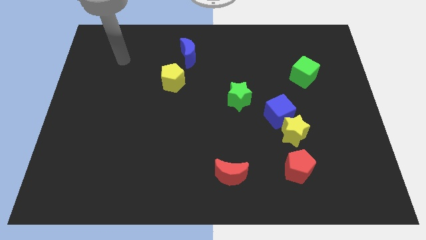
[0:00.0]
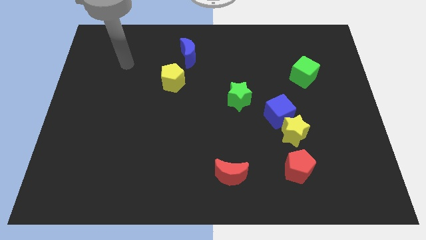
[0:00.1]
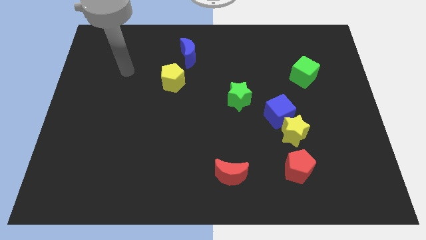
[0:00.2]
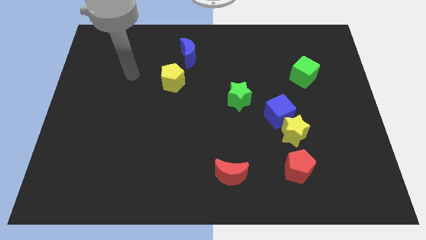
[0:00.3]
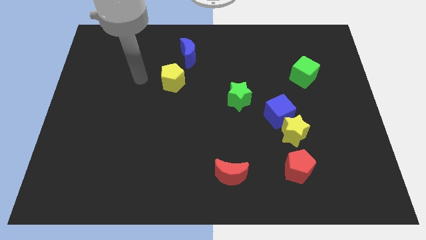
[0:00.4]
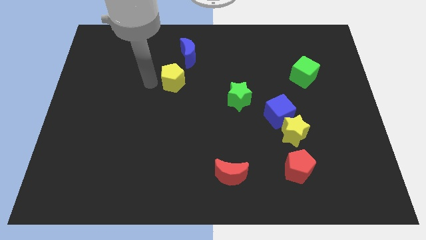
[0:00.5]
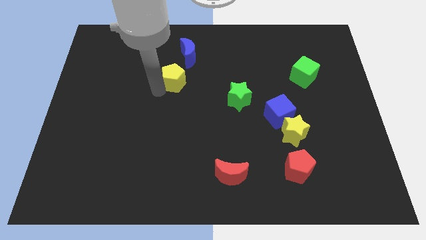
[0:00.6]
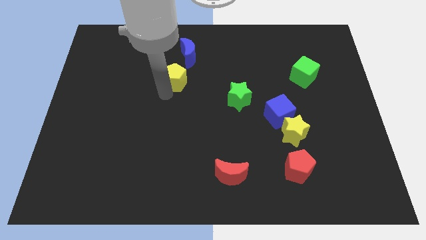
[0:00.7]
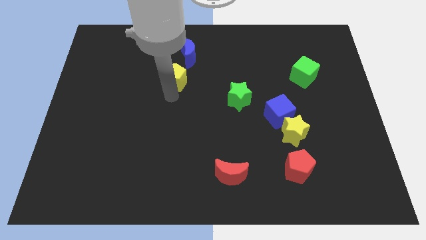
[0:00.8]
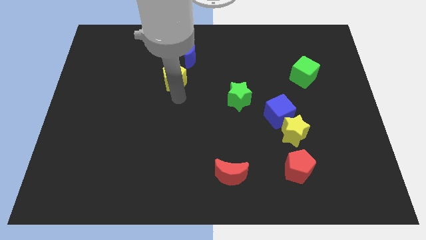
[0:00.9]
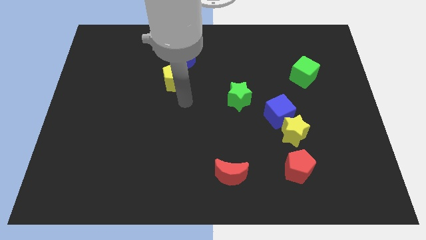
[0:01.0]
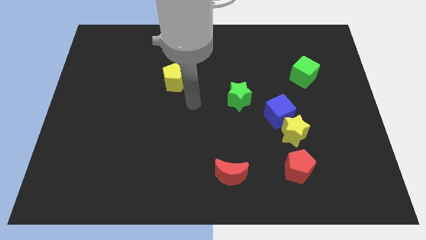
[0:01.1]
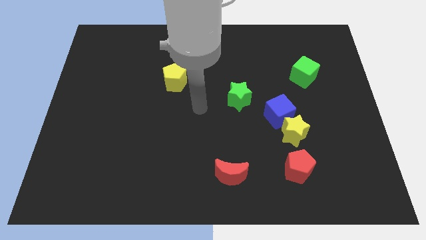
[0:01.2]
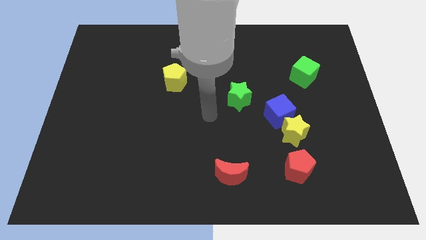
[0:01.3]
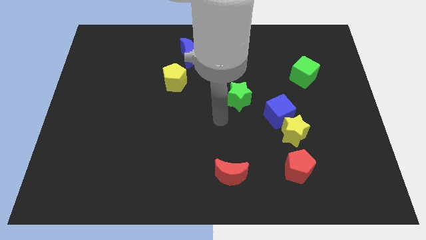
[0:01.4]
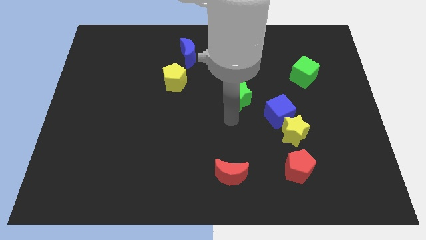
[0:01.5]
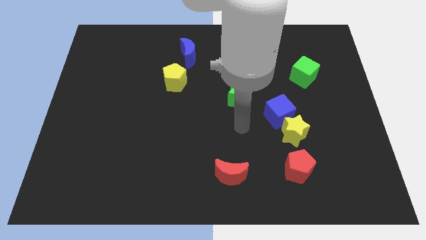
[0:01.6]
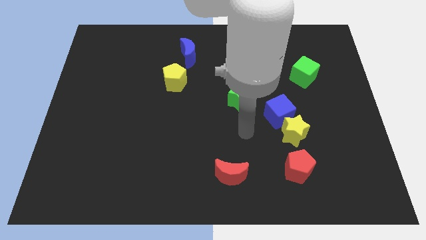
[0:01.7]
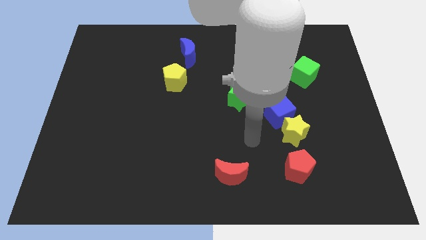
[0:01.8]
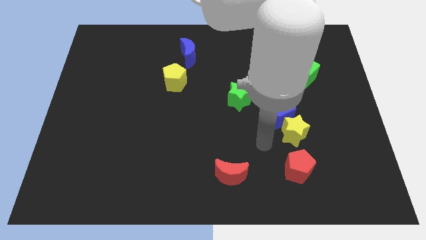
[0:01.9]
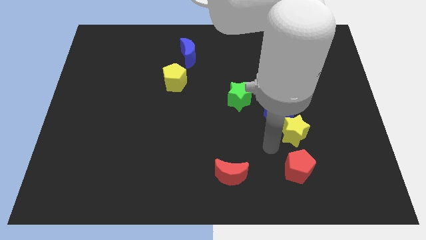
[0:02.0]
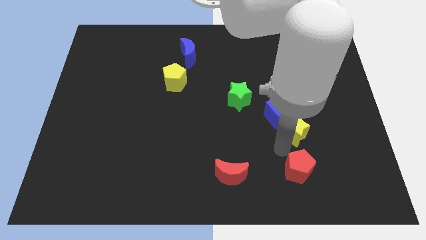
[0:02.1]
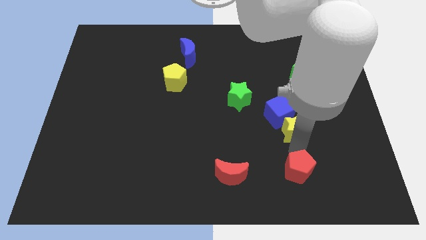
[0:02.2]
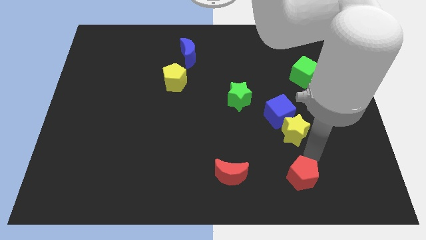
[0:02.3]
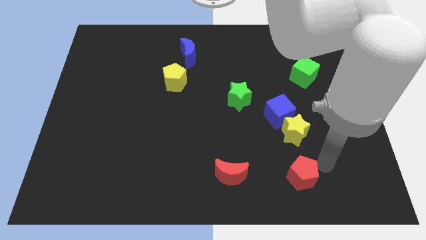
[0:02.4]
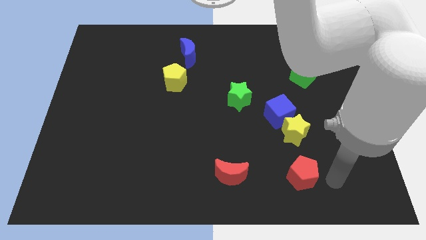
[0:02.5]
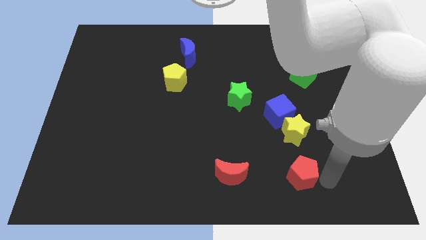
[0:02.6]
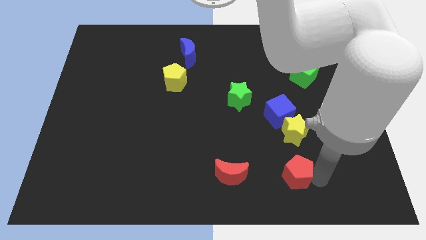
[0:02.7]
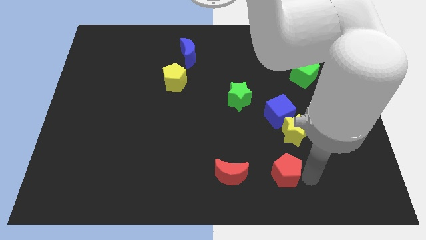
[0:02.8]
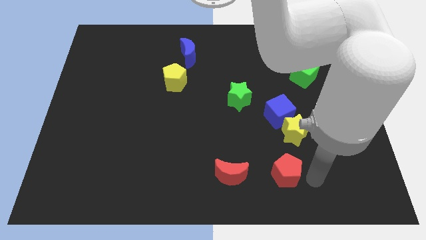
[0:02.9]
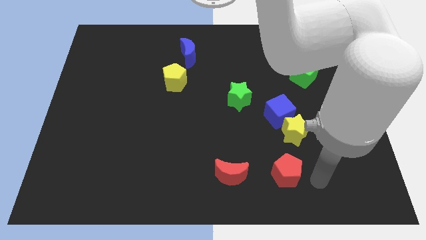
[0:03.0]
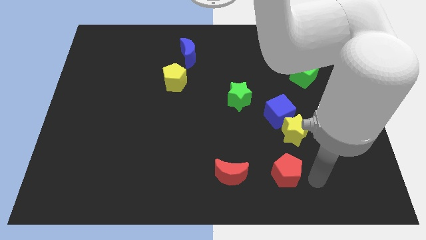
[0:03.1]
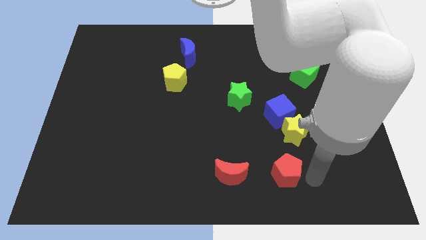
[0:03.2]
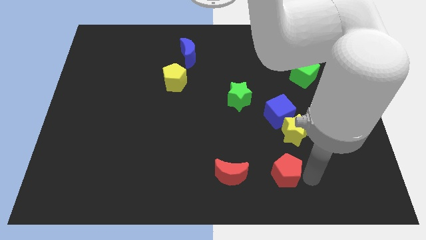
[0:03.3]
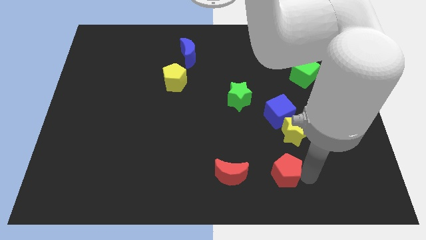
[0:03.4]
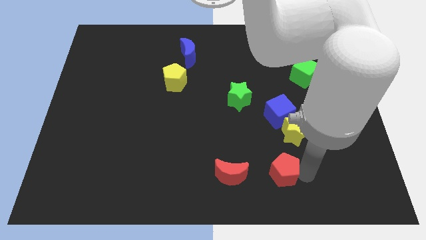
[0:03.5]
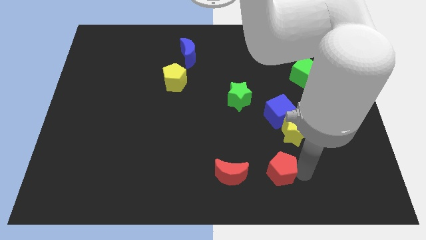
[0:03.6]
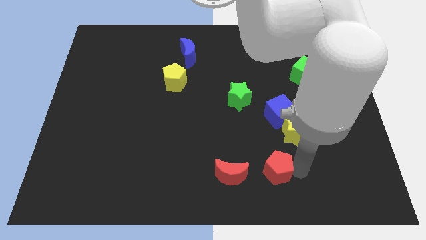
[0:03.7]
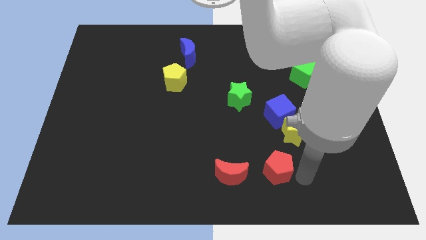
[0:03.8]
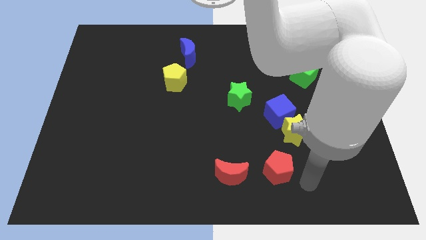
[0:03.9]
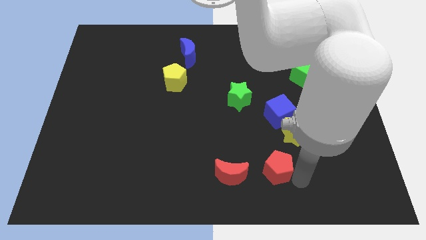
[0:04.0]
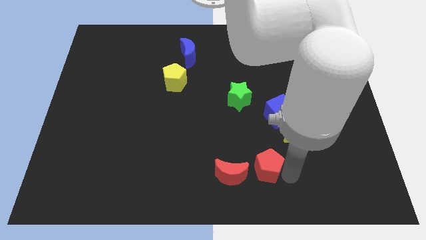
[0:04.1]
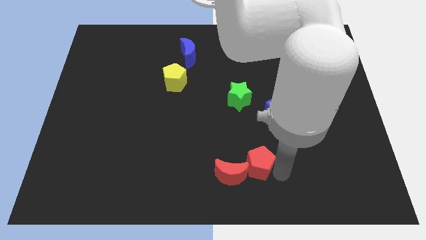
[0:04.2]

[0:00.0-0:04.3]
push the red pentagon a little left

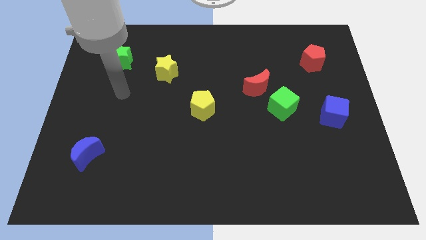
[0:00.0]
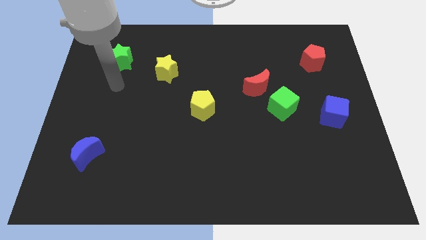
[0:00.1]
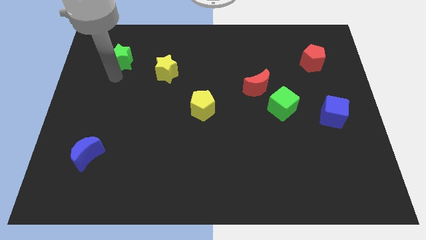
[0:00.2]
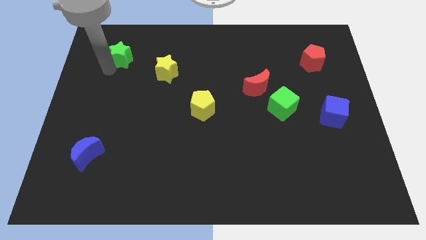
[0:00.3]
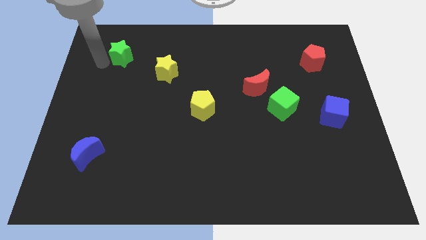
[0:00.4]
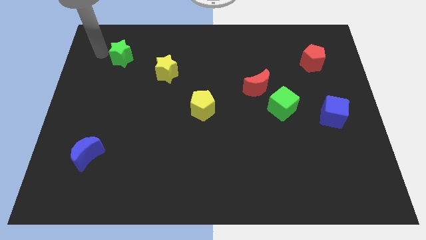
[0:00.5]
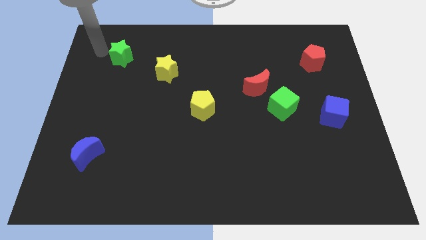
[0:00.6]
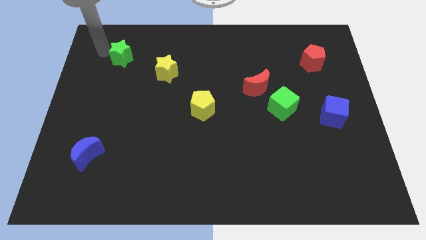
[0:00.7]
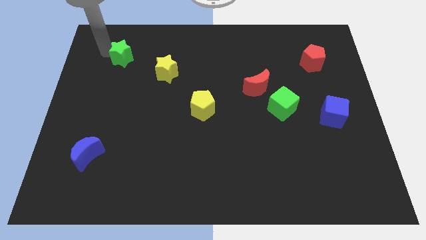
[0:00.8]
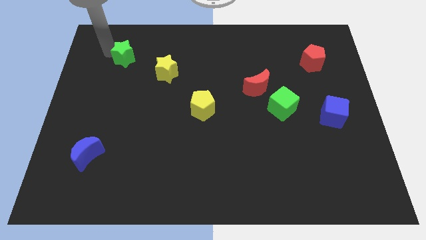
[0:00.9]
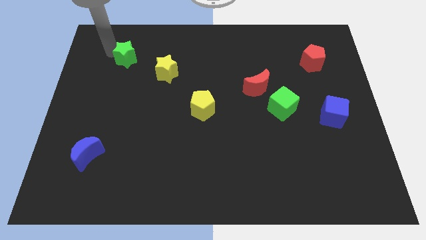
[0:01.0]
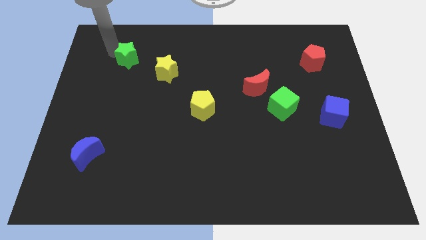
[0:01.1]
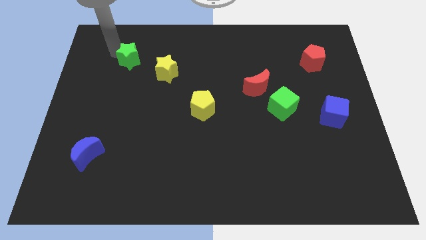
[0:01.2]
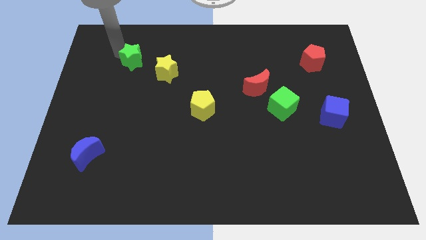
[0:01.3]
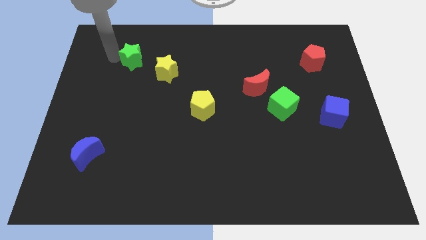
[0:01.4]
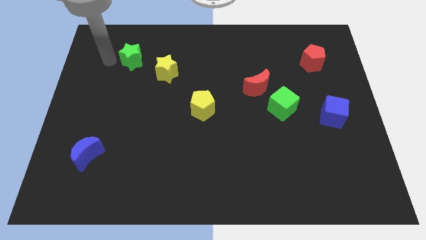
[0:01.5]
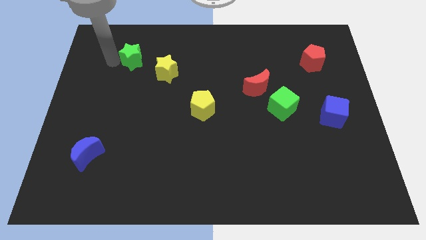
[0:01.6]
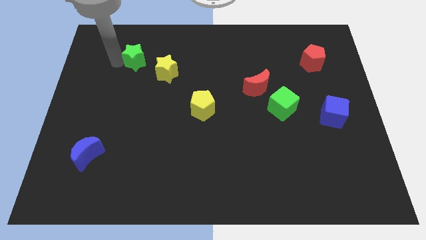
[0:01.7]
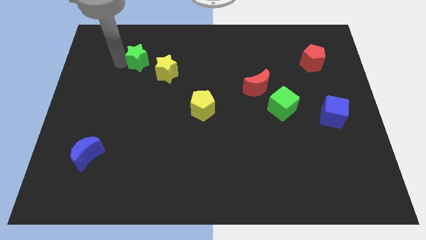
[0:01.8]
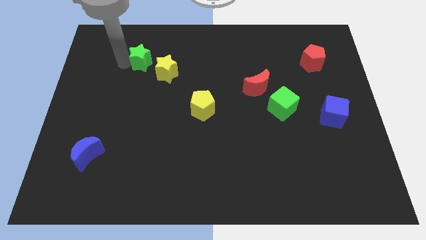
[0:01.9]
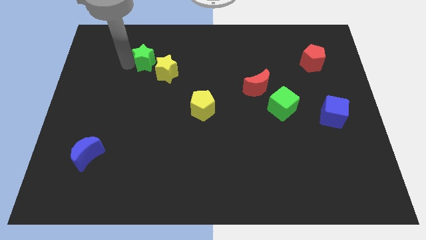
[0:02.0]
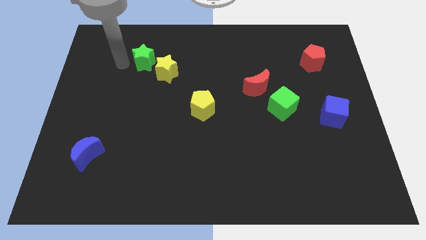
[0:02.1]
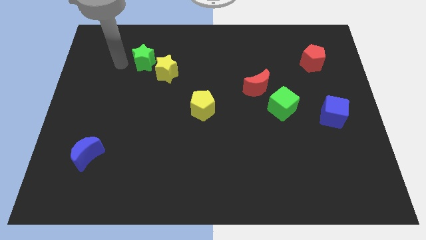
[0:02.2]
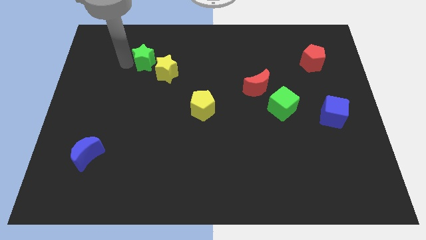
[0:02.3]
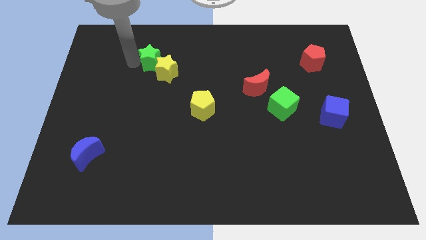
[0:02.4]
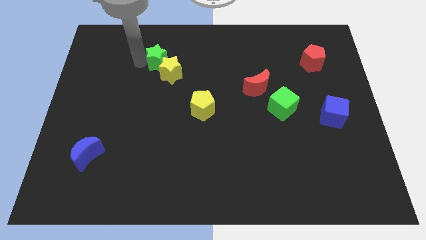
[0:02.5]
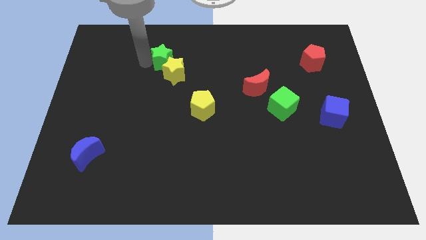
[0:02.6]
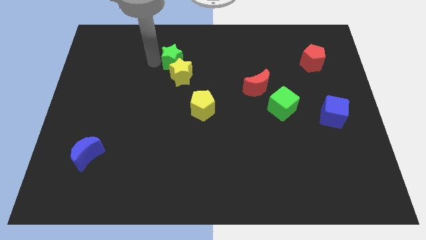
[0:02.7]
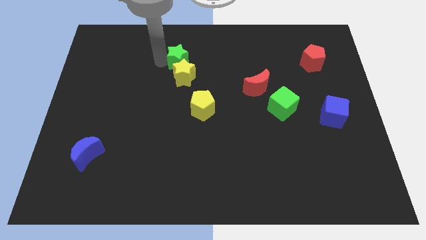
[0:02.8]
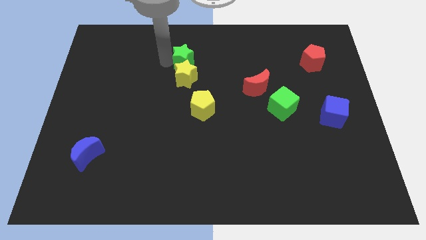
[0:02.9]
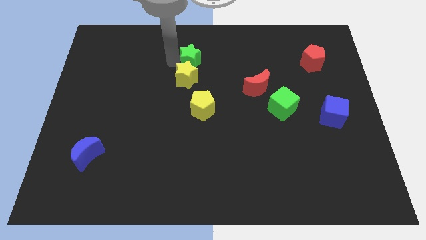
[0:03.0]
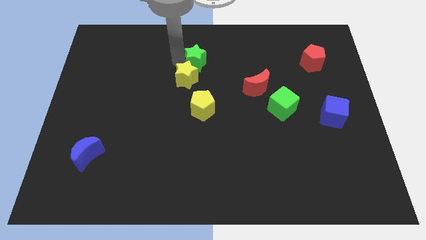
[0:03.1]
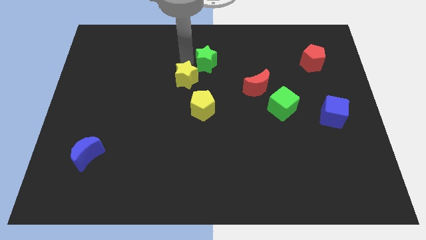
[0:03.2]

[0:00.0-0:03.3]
slide the green star right

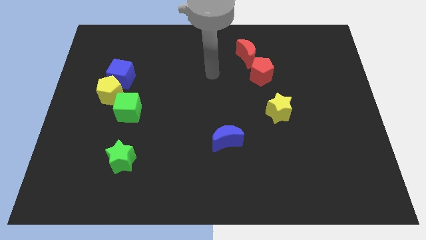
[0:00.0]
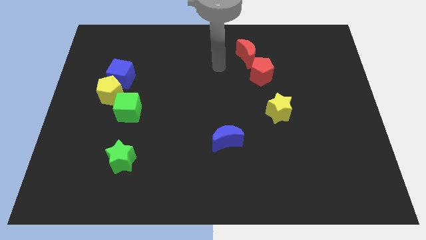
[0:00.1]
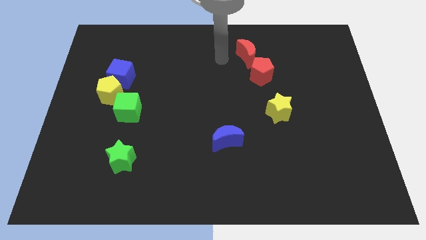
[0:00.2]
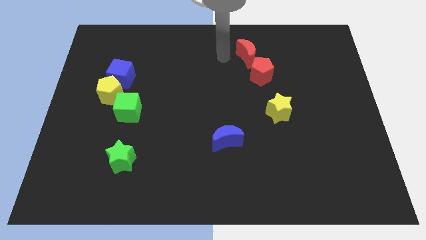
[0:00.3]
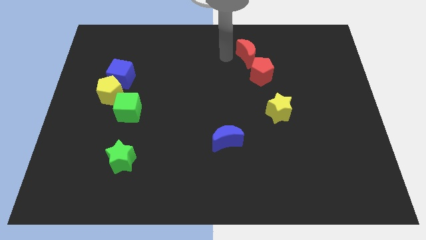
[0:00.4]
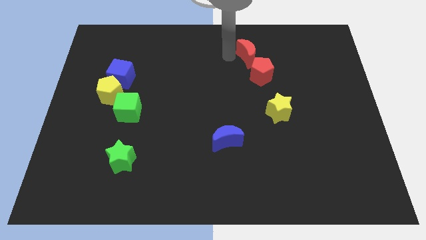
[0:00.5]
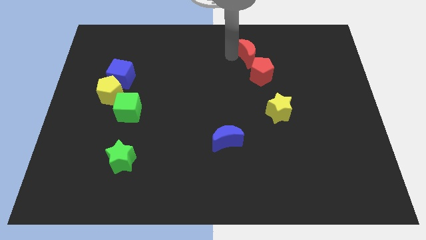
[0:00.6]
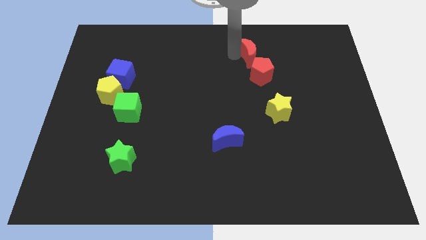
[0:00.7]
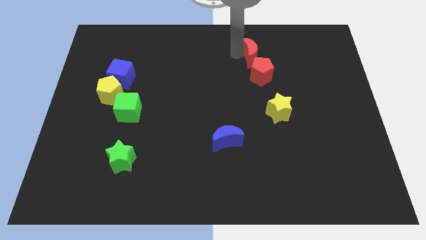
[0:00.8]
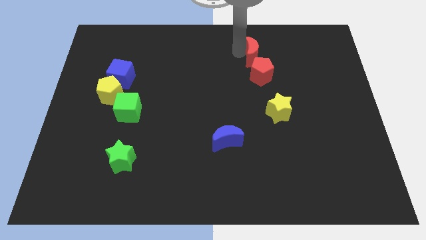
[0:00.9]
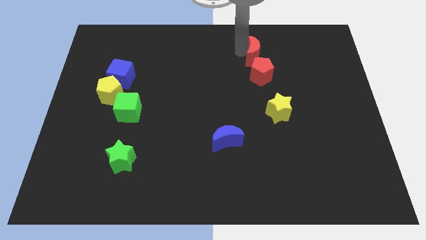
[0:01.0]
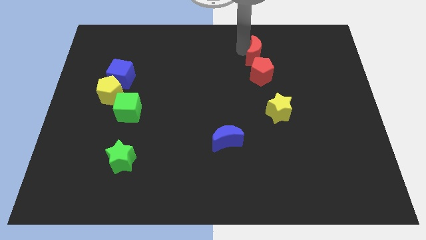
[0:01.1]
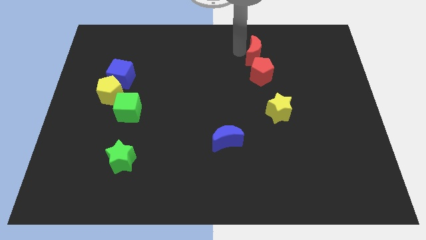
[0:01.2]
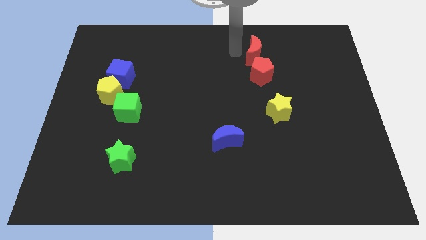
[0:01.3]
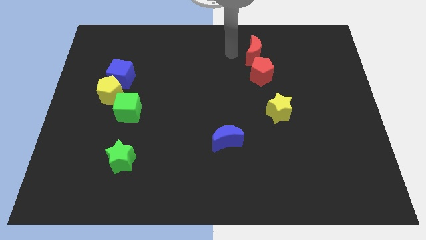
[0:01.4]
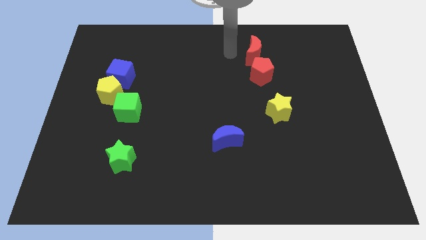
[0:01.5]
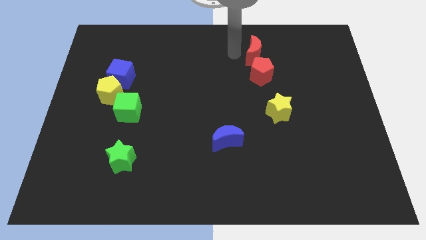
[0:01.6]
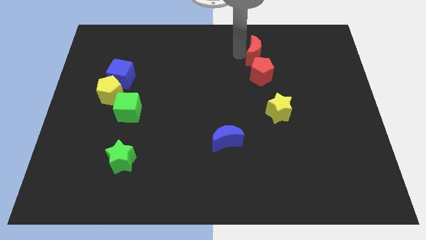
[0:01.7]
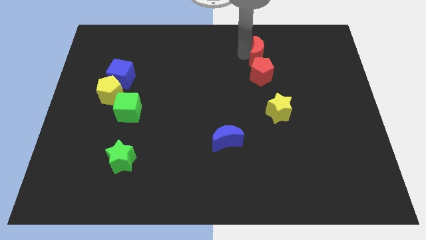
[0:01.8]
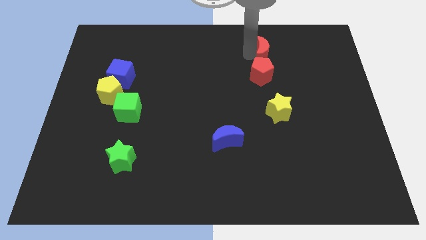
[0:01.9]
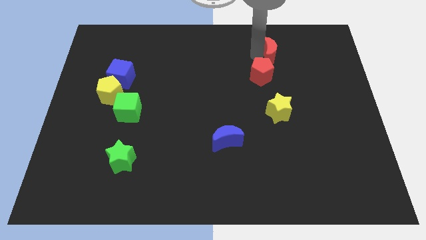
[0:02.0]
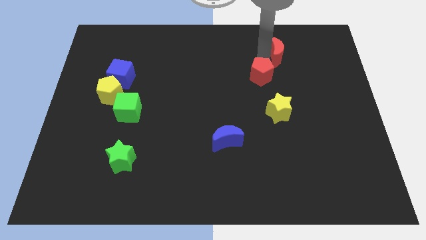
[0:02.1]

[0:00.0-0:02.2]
push the red moon somewhat to the right
